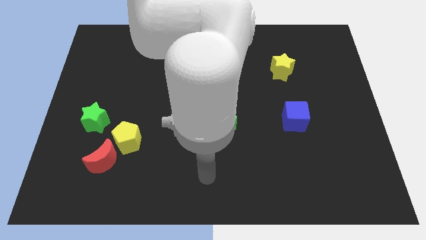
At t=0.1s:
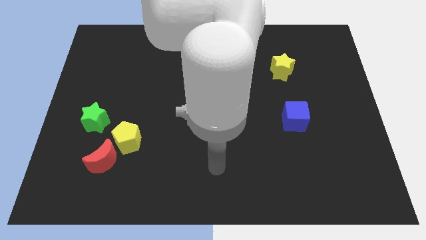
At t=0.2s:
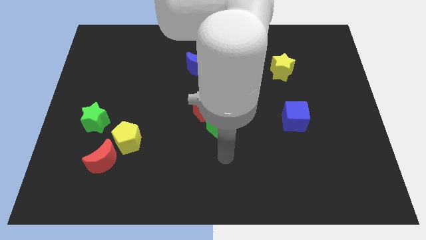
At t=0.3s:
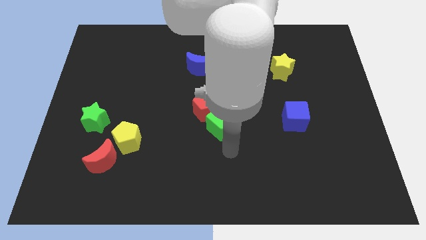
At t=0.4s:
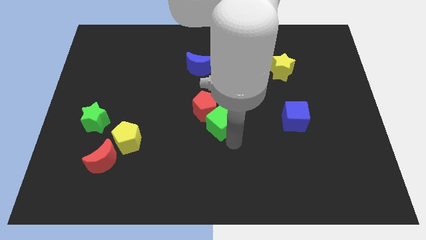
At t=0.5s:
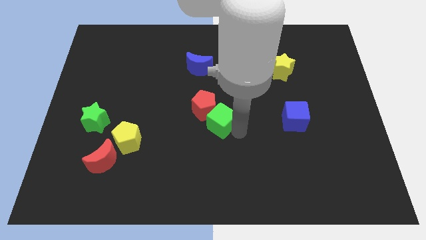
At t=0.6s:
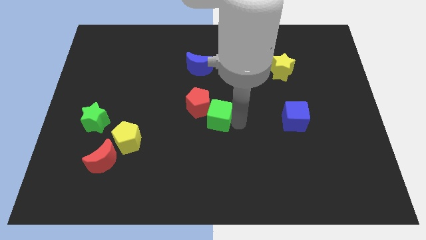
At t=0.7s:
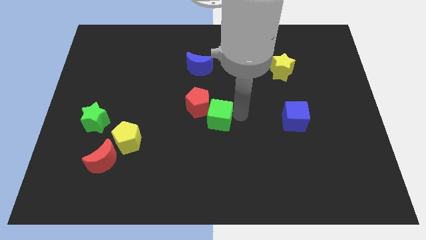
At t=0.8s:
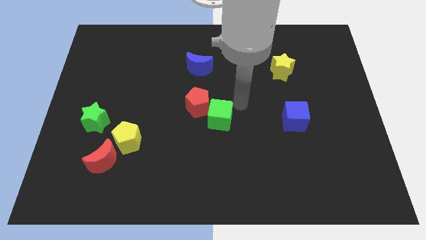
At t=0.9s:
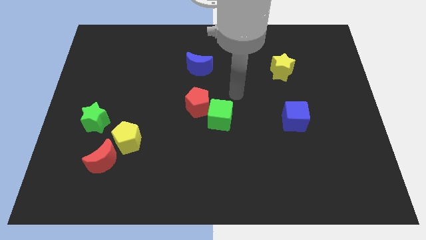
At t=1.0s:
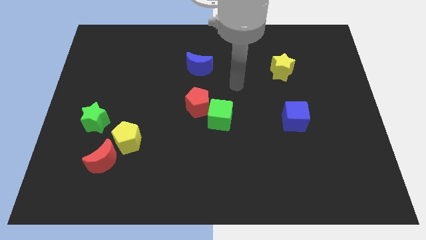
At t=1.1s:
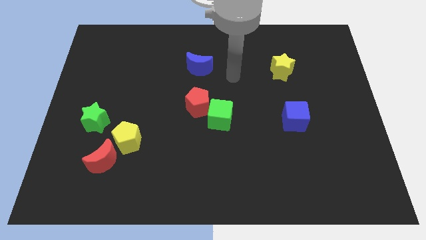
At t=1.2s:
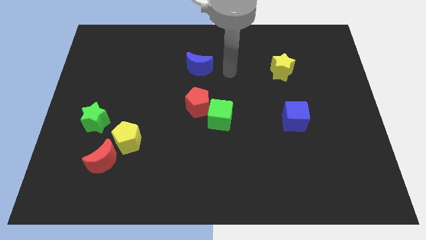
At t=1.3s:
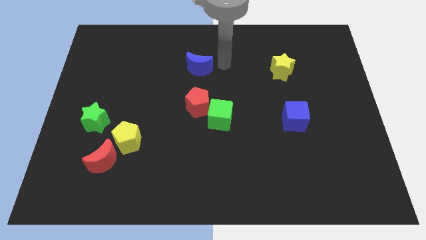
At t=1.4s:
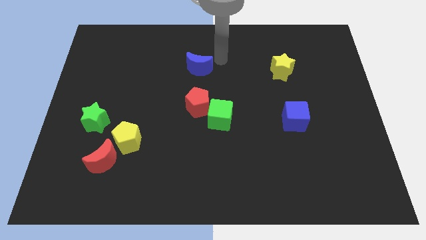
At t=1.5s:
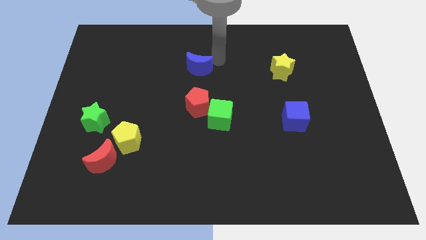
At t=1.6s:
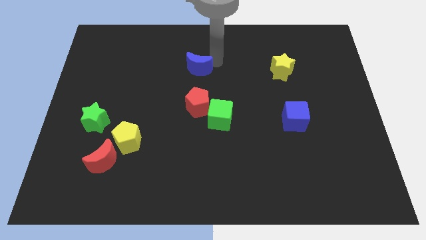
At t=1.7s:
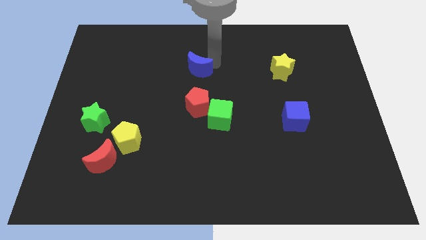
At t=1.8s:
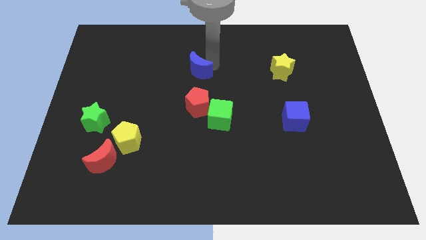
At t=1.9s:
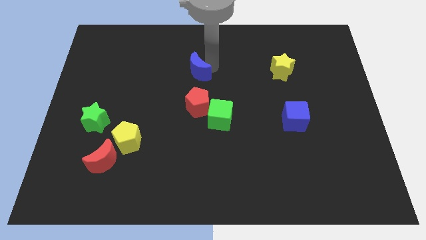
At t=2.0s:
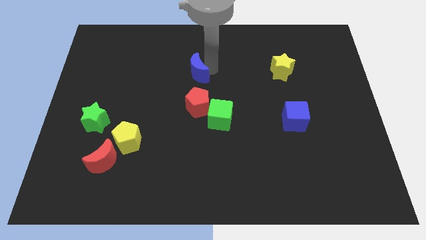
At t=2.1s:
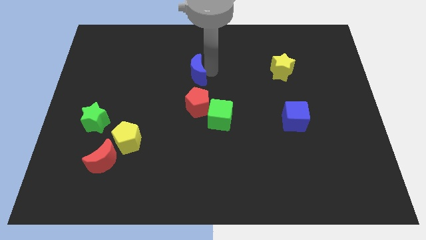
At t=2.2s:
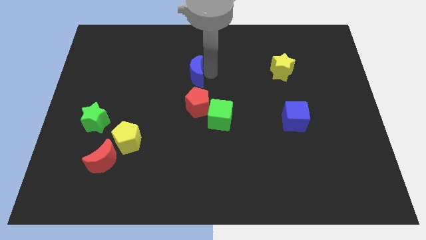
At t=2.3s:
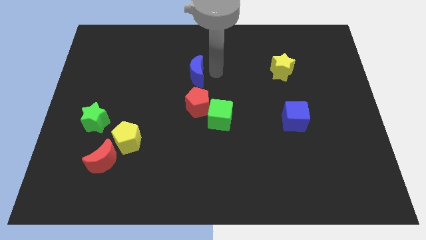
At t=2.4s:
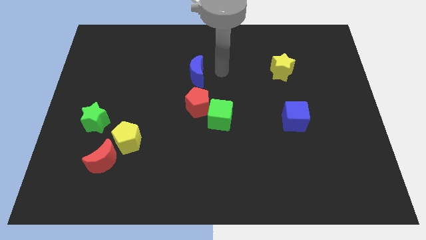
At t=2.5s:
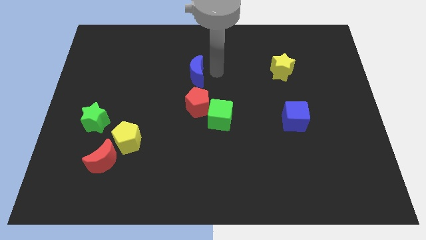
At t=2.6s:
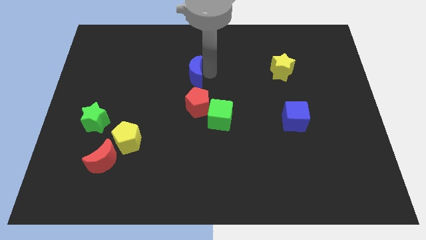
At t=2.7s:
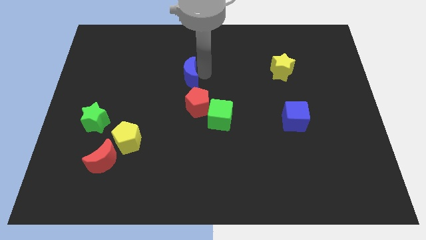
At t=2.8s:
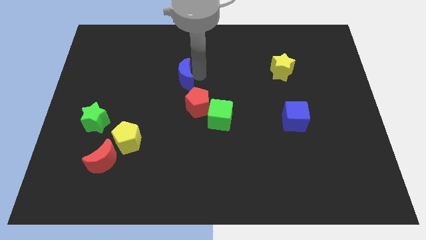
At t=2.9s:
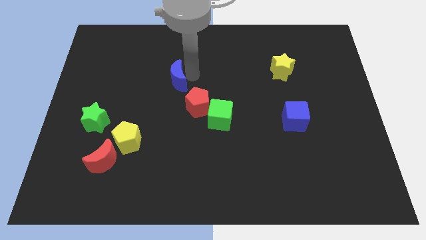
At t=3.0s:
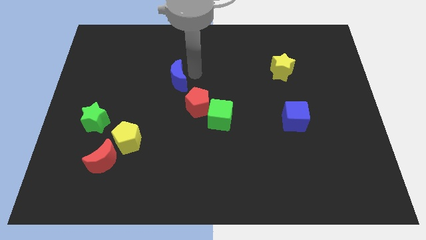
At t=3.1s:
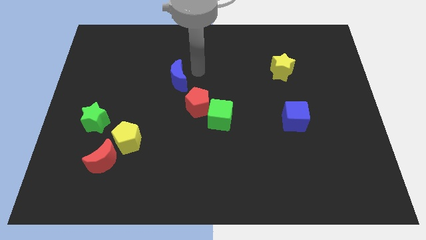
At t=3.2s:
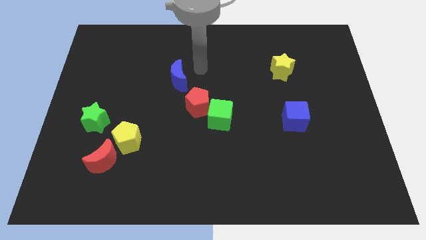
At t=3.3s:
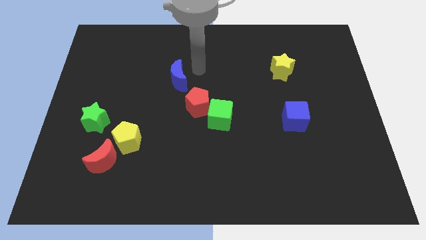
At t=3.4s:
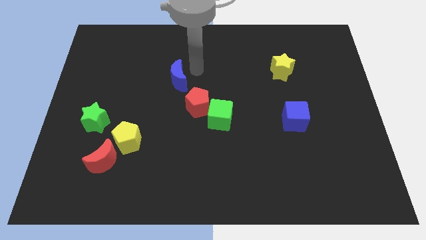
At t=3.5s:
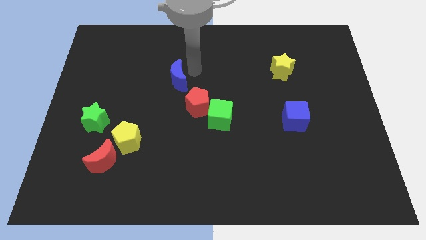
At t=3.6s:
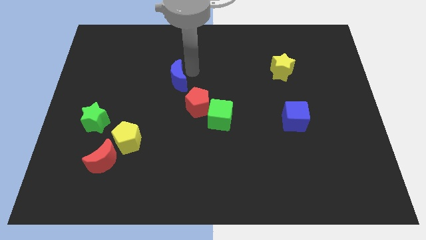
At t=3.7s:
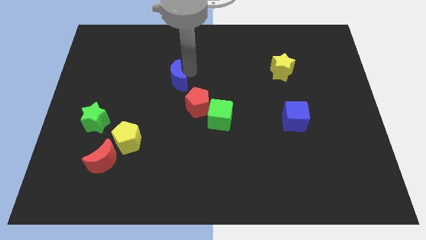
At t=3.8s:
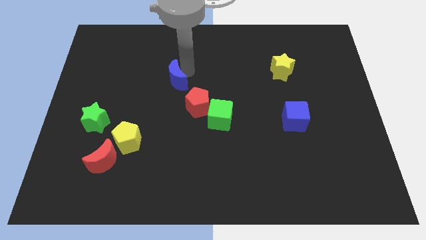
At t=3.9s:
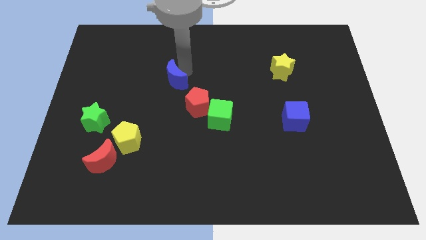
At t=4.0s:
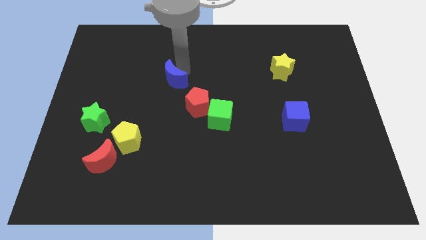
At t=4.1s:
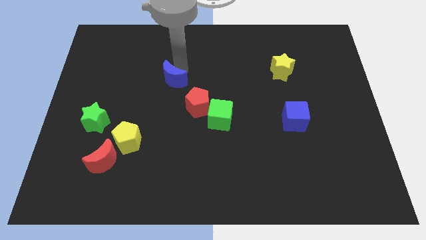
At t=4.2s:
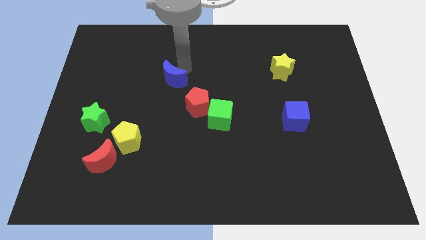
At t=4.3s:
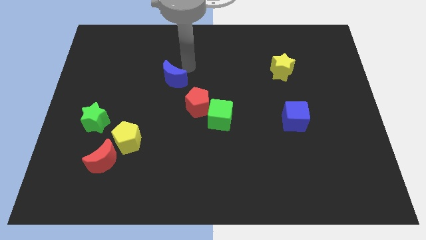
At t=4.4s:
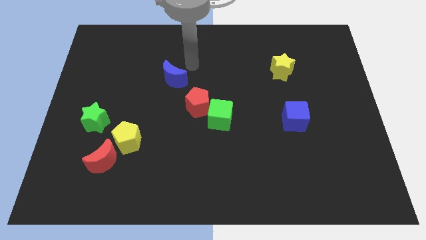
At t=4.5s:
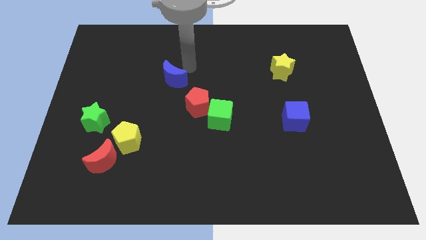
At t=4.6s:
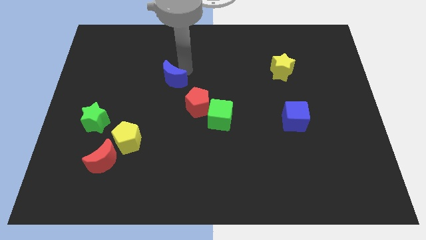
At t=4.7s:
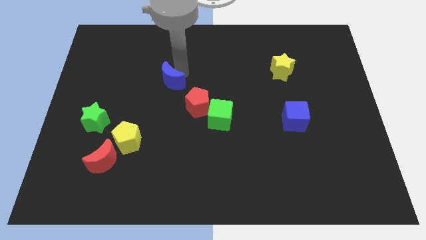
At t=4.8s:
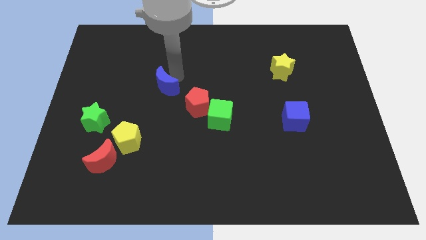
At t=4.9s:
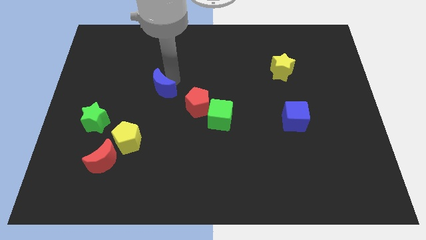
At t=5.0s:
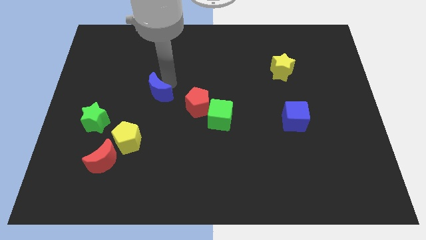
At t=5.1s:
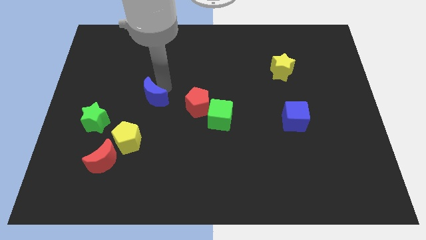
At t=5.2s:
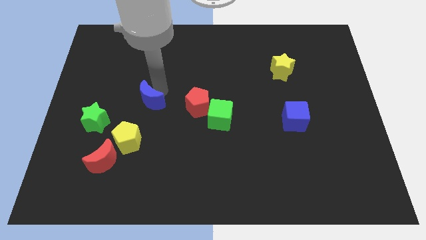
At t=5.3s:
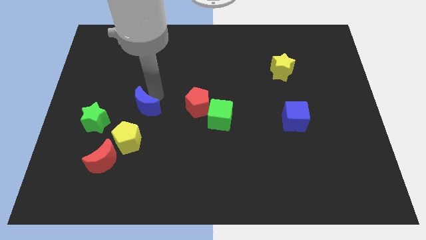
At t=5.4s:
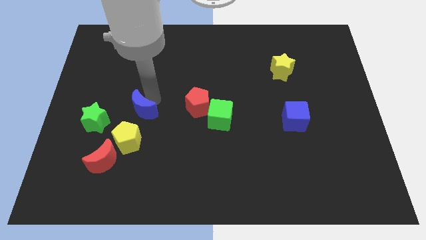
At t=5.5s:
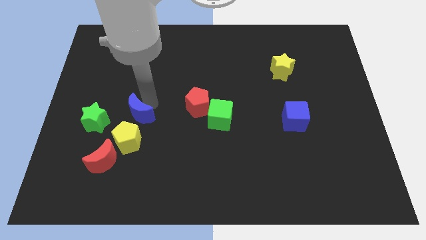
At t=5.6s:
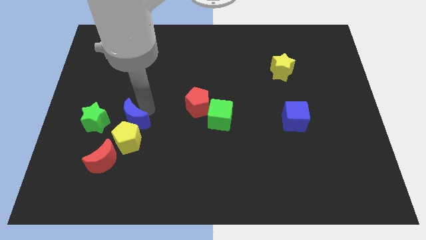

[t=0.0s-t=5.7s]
push the blue moon to the top side of the red moon

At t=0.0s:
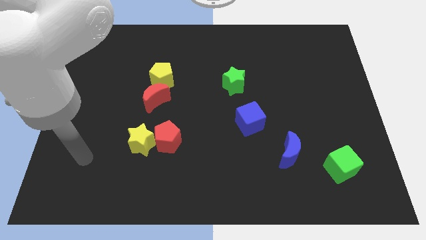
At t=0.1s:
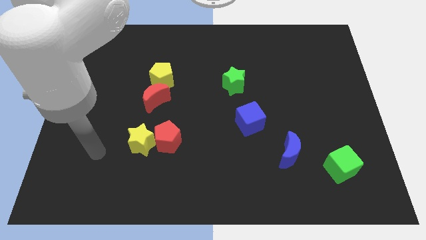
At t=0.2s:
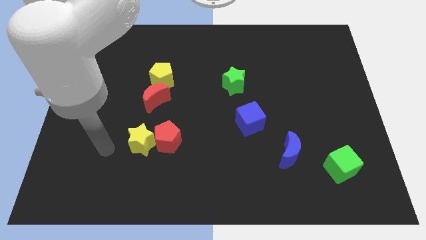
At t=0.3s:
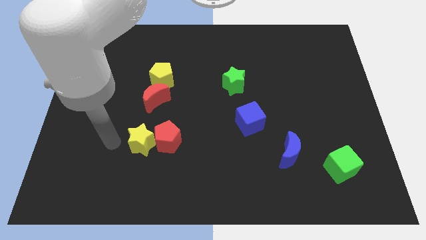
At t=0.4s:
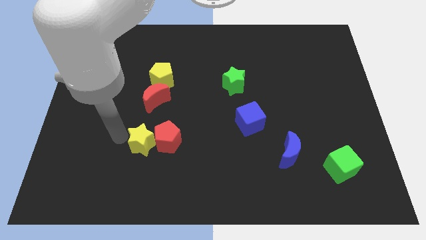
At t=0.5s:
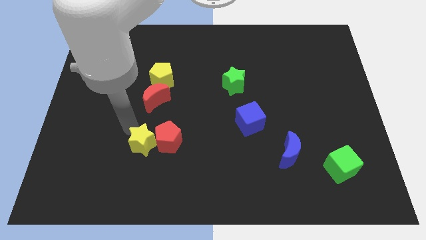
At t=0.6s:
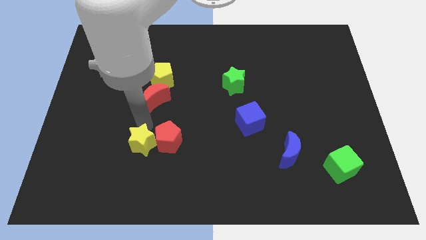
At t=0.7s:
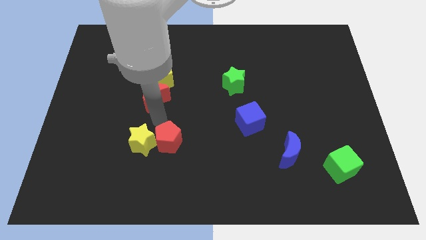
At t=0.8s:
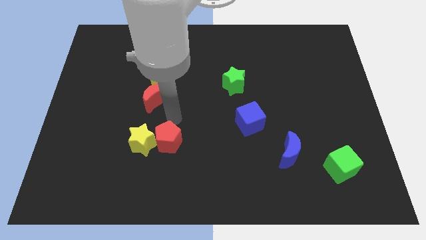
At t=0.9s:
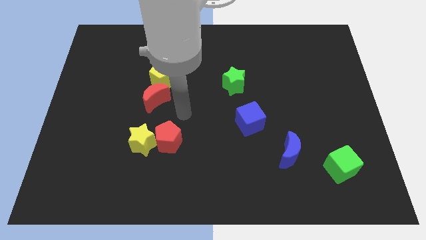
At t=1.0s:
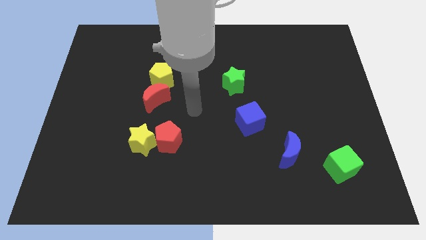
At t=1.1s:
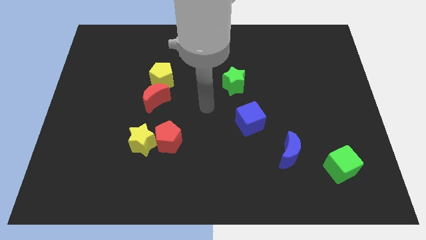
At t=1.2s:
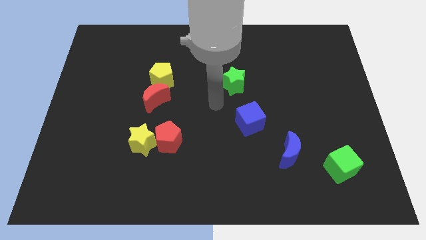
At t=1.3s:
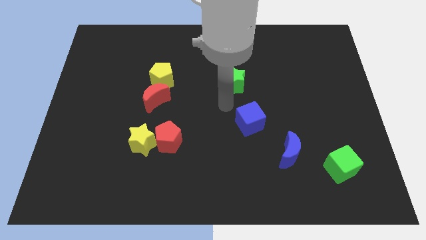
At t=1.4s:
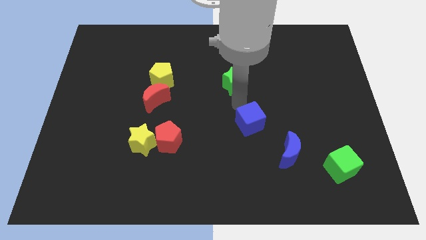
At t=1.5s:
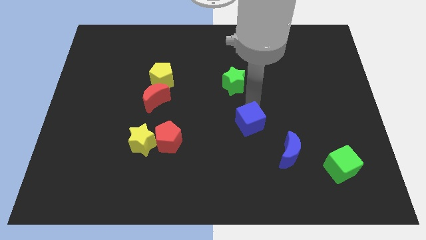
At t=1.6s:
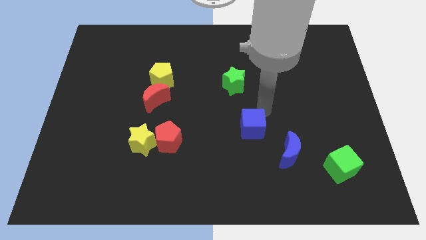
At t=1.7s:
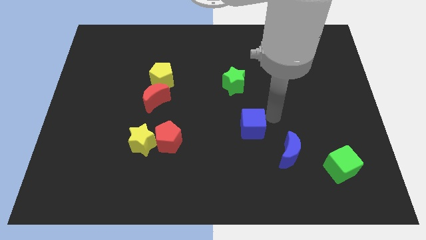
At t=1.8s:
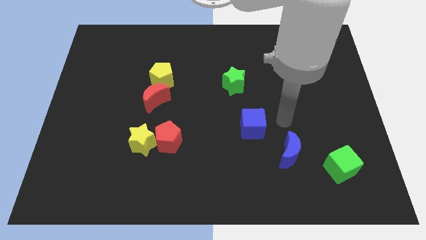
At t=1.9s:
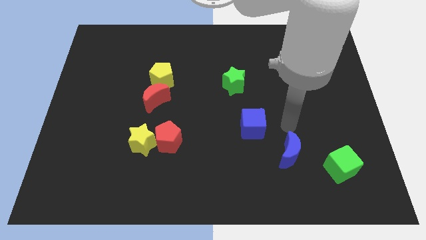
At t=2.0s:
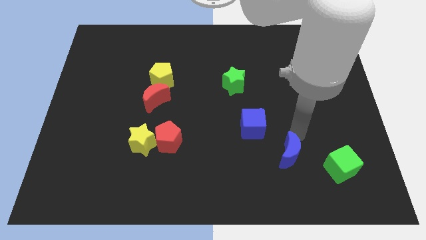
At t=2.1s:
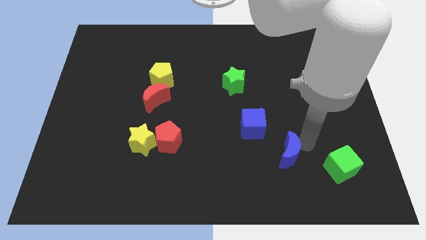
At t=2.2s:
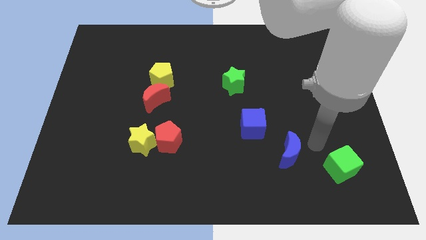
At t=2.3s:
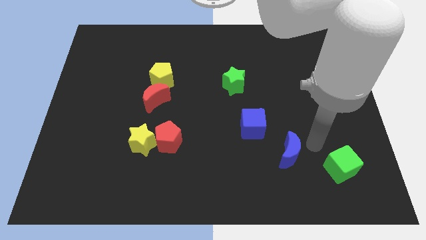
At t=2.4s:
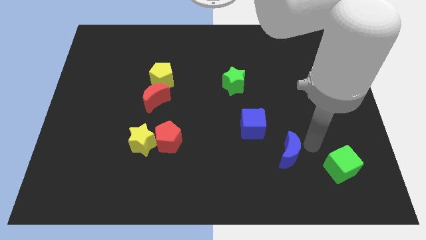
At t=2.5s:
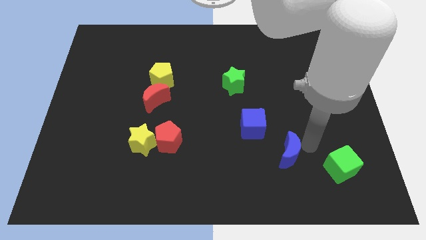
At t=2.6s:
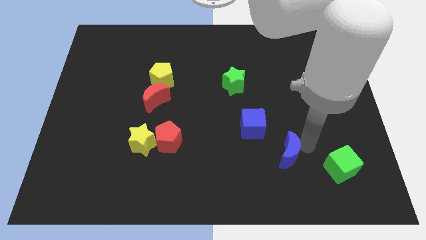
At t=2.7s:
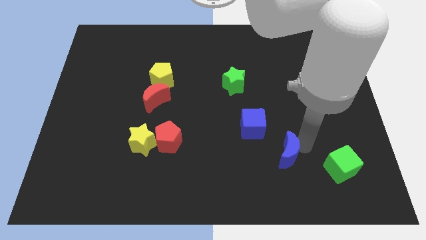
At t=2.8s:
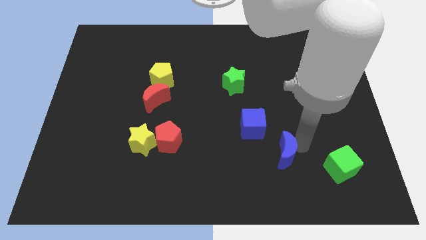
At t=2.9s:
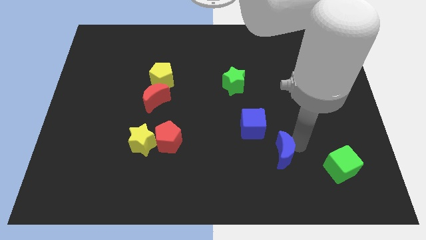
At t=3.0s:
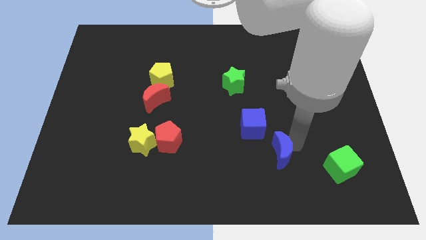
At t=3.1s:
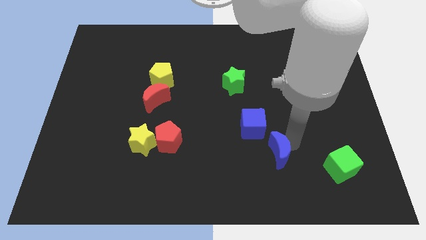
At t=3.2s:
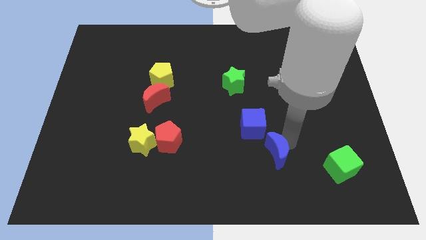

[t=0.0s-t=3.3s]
move the blue moon to the bottom side of the blue cube
